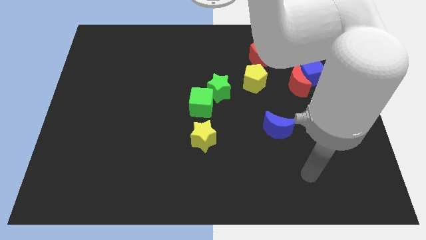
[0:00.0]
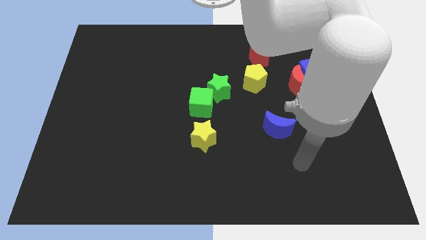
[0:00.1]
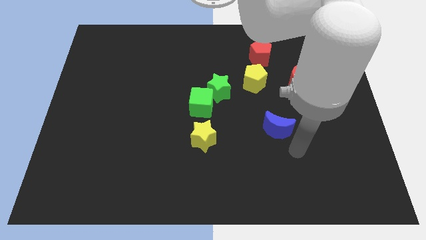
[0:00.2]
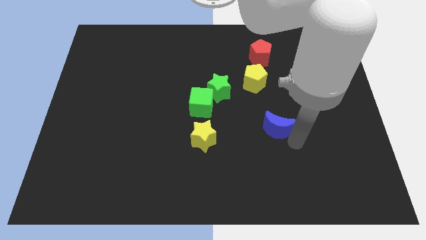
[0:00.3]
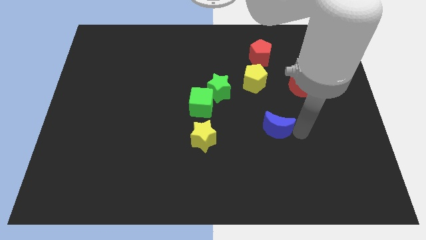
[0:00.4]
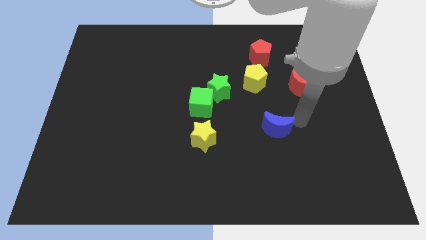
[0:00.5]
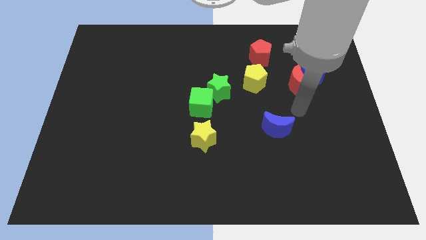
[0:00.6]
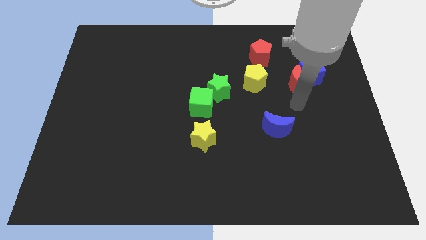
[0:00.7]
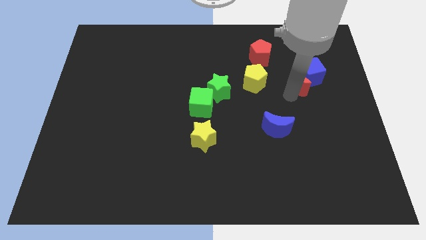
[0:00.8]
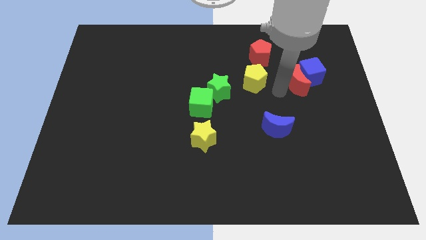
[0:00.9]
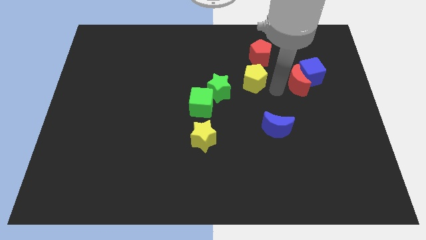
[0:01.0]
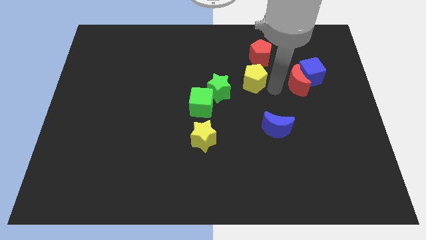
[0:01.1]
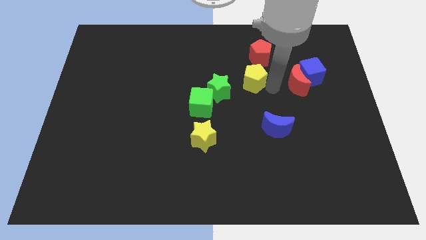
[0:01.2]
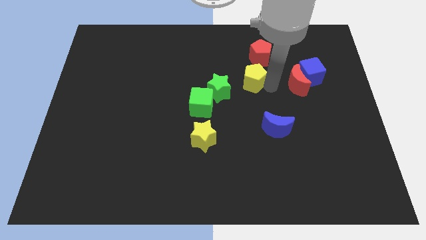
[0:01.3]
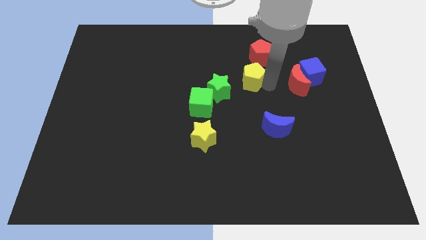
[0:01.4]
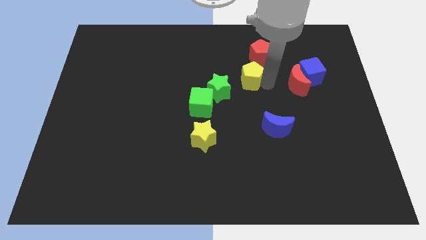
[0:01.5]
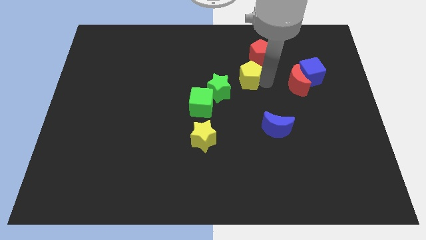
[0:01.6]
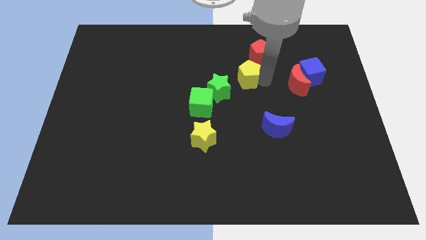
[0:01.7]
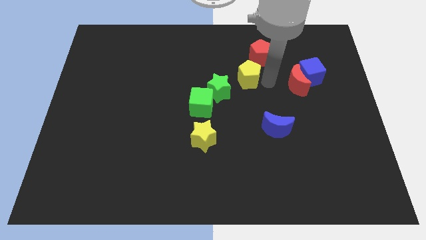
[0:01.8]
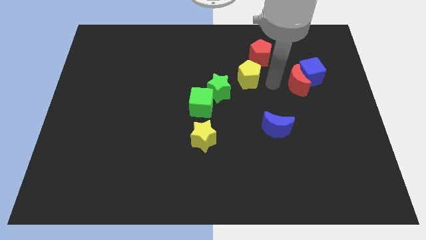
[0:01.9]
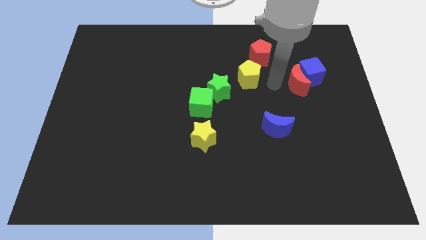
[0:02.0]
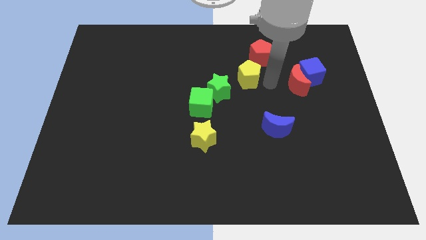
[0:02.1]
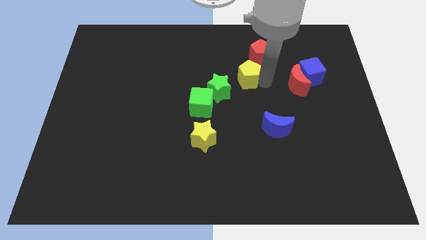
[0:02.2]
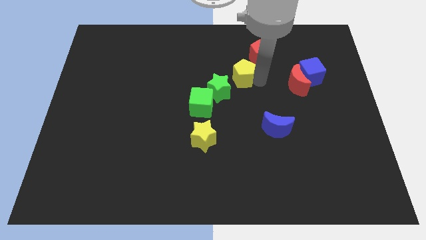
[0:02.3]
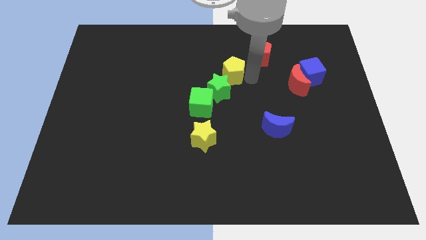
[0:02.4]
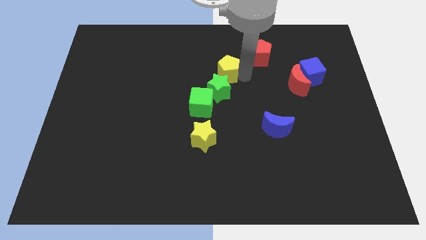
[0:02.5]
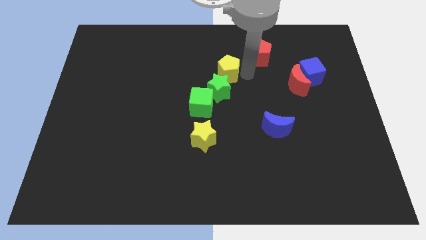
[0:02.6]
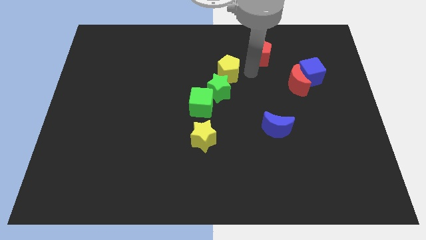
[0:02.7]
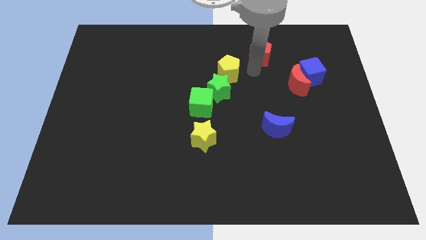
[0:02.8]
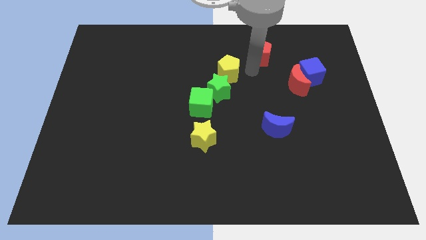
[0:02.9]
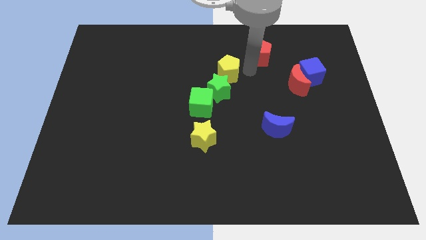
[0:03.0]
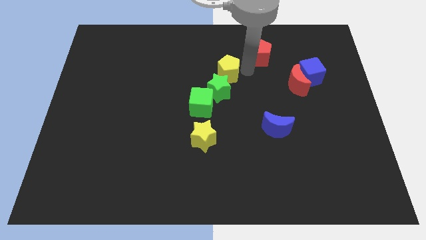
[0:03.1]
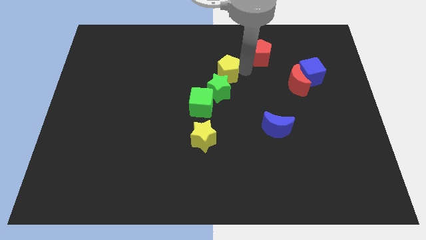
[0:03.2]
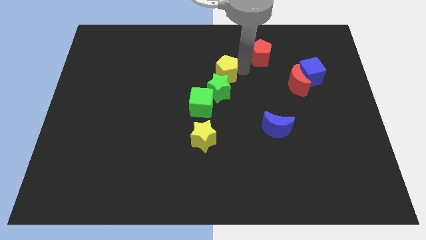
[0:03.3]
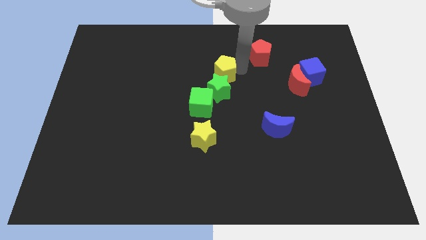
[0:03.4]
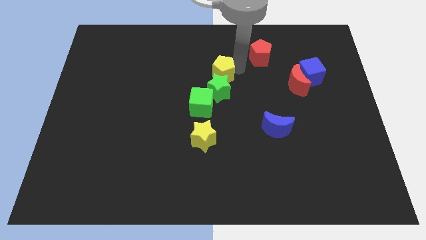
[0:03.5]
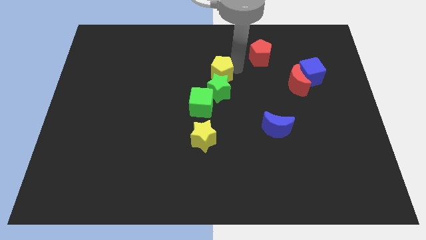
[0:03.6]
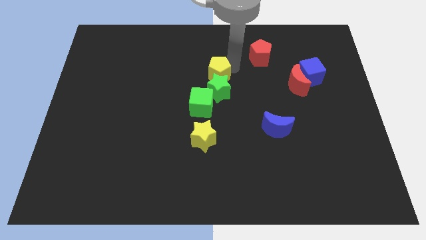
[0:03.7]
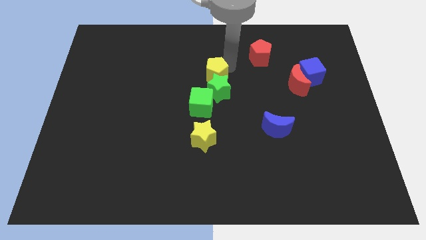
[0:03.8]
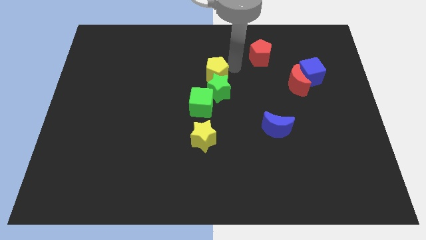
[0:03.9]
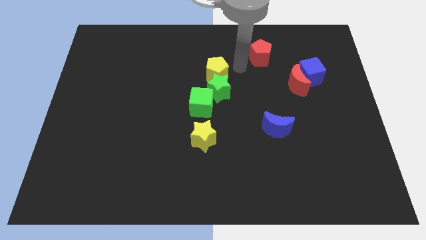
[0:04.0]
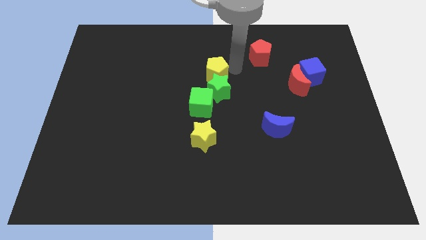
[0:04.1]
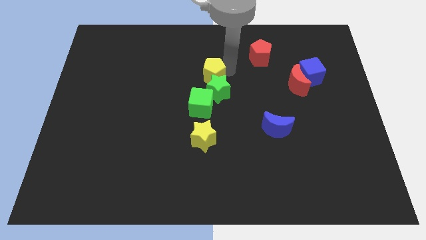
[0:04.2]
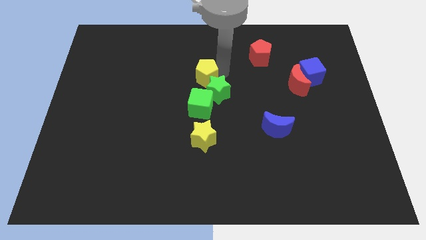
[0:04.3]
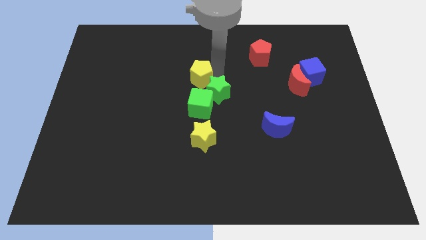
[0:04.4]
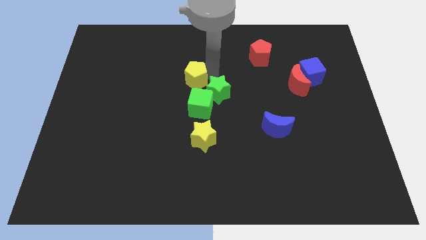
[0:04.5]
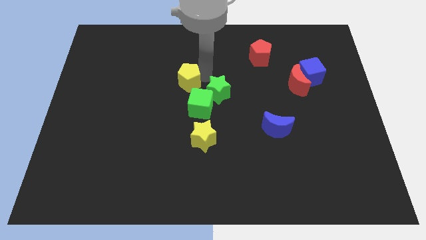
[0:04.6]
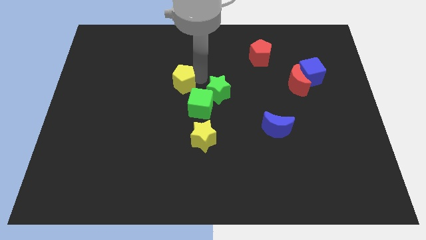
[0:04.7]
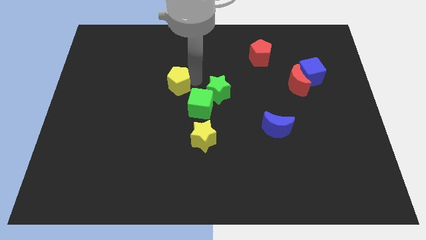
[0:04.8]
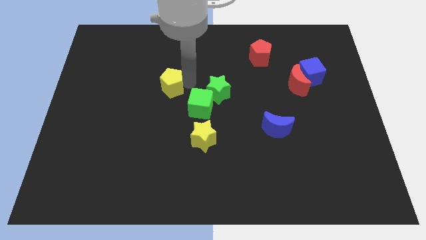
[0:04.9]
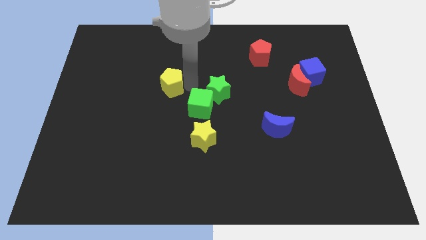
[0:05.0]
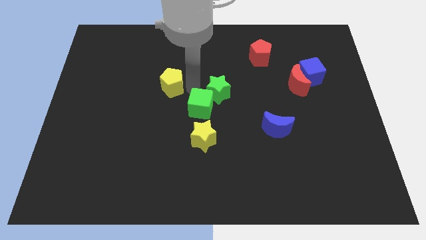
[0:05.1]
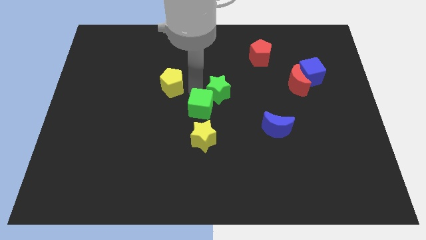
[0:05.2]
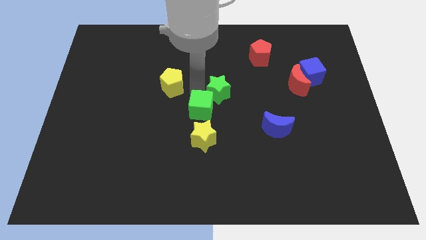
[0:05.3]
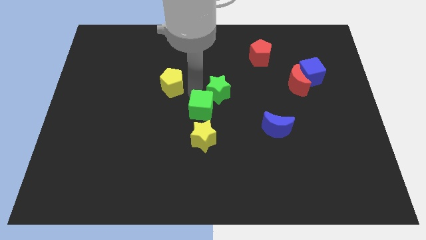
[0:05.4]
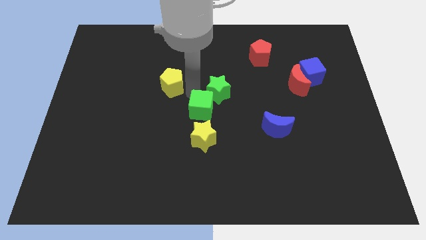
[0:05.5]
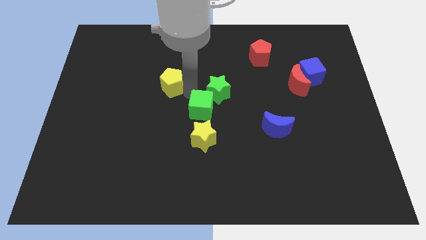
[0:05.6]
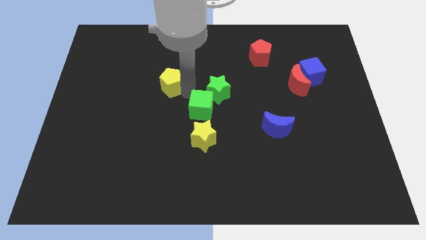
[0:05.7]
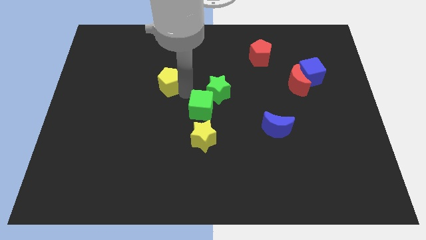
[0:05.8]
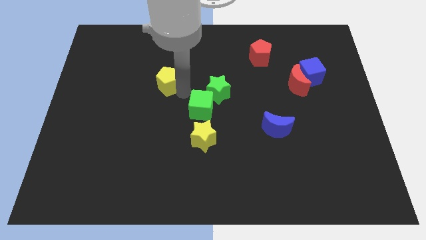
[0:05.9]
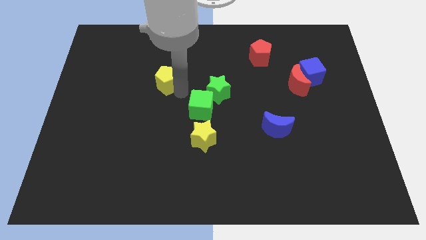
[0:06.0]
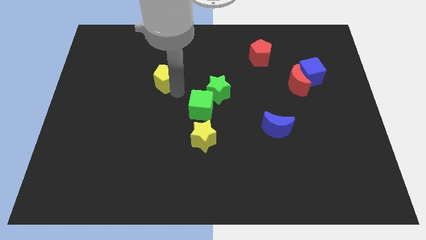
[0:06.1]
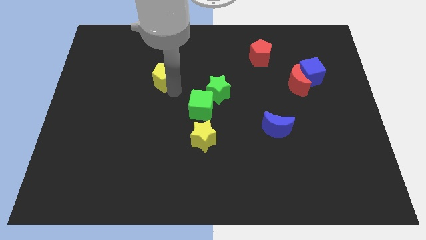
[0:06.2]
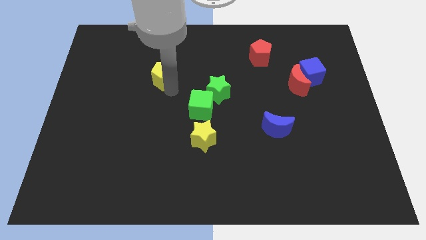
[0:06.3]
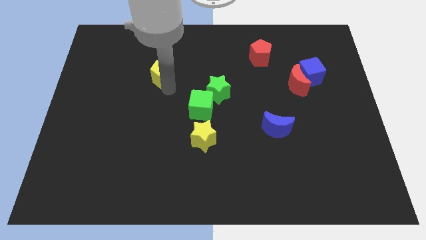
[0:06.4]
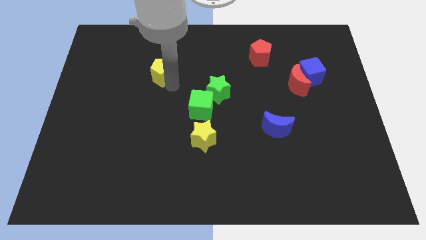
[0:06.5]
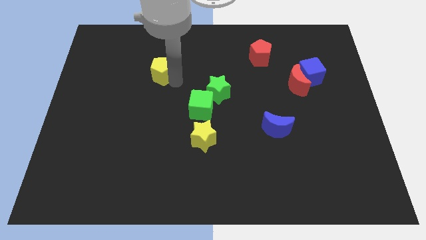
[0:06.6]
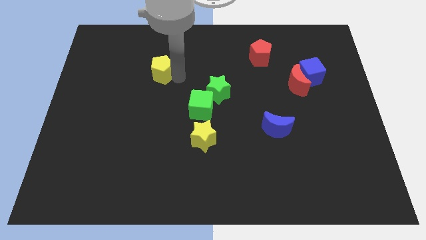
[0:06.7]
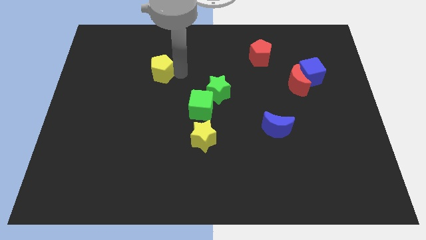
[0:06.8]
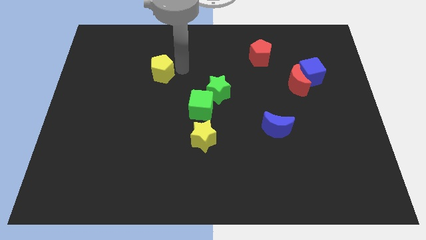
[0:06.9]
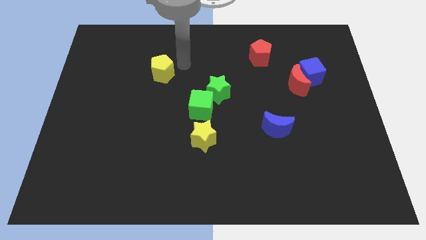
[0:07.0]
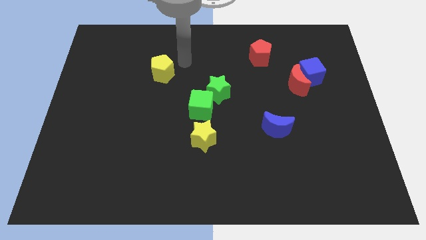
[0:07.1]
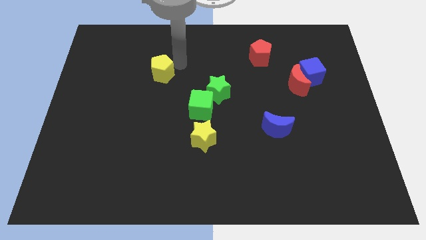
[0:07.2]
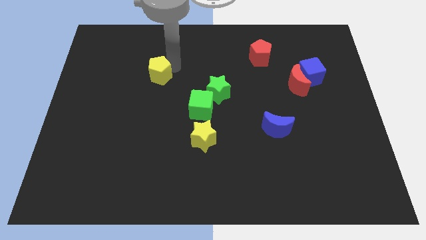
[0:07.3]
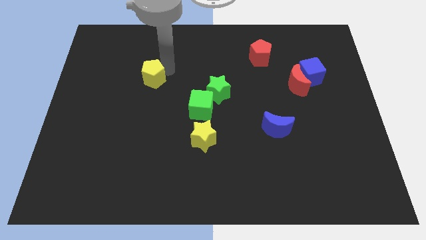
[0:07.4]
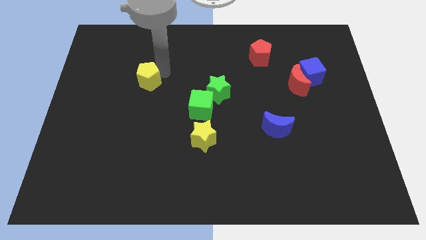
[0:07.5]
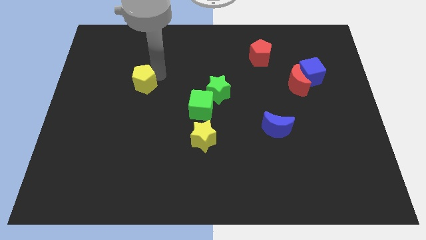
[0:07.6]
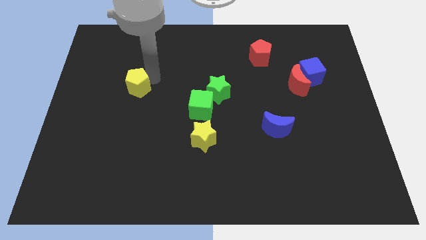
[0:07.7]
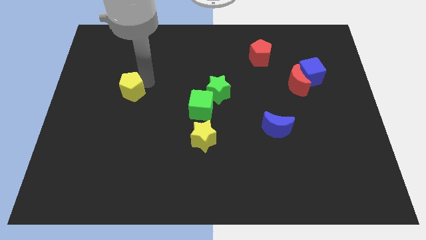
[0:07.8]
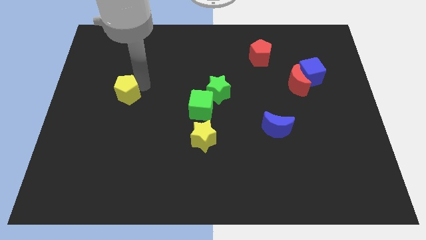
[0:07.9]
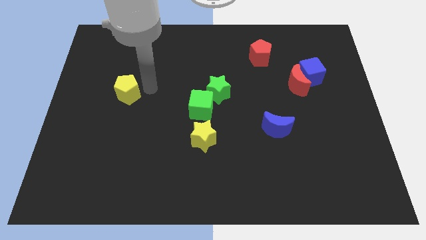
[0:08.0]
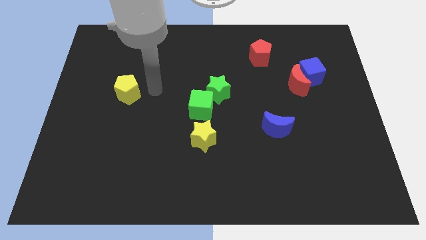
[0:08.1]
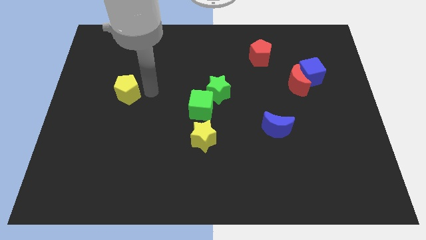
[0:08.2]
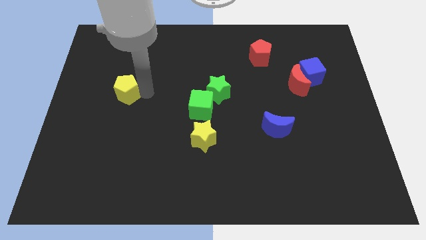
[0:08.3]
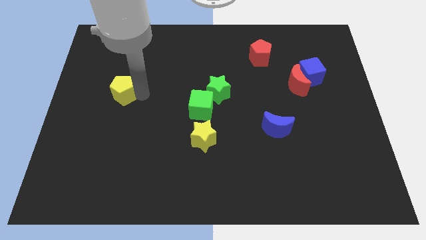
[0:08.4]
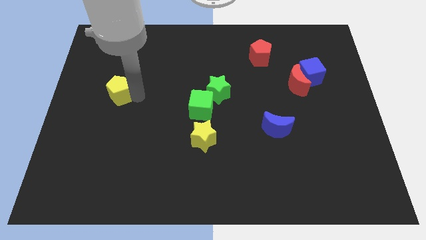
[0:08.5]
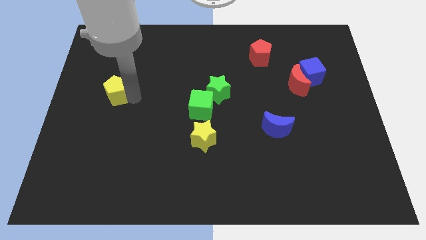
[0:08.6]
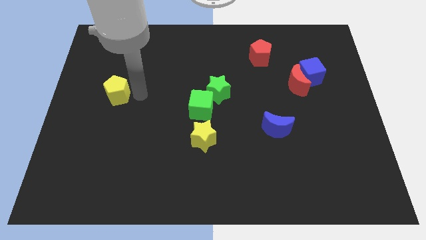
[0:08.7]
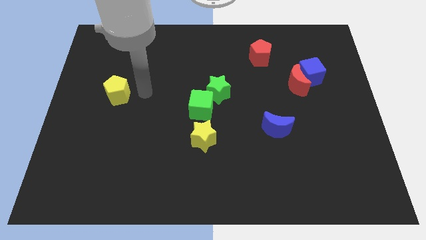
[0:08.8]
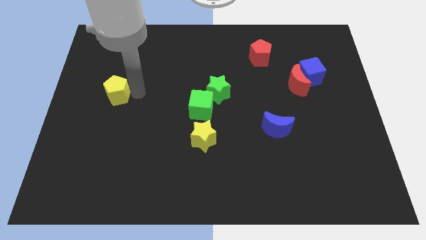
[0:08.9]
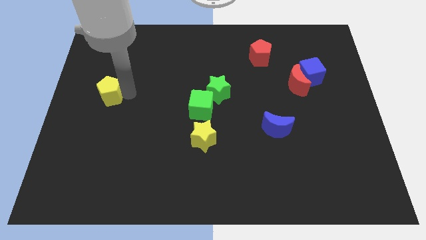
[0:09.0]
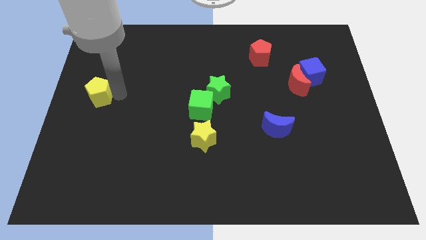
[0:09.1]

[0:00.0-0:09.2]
move the yellow pentagon to the left side of the board
